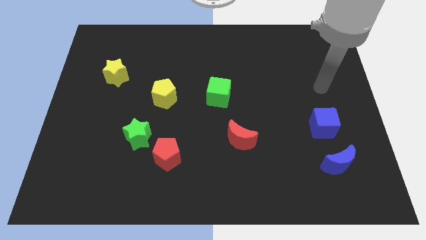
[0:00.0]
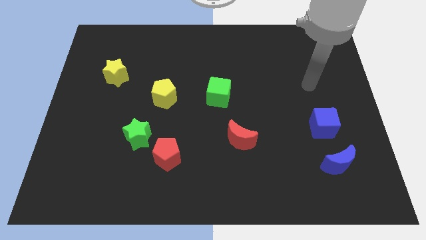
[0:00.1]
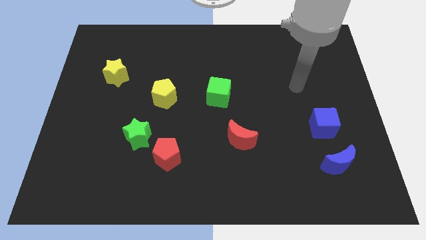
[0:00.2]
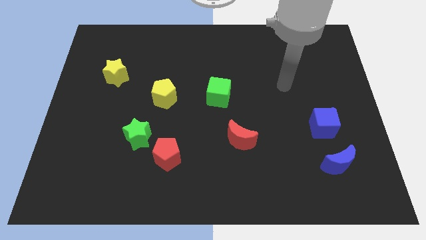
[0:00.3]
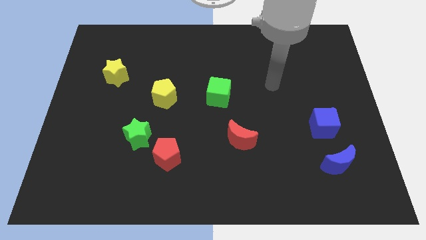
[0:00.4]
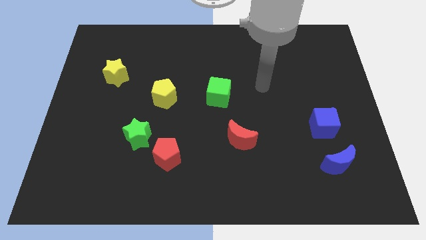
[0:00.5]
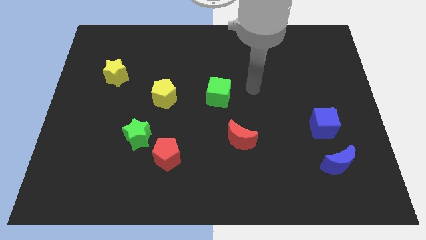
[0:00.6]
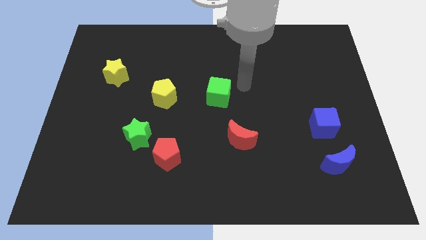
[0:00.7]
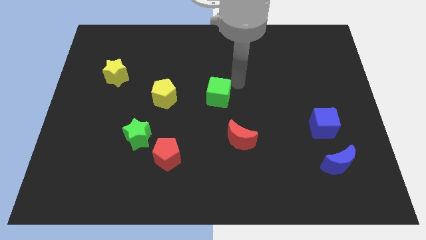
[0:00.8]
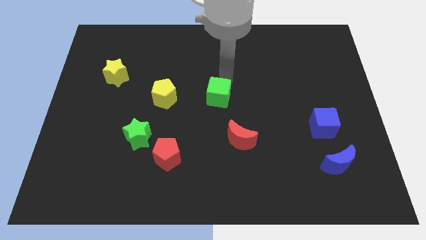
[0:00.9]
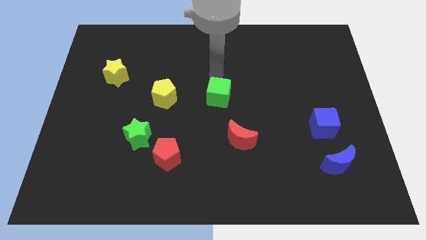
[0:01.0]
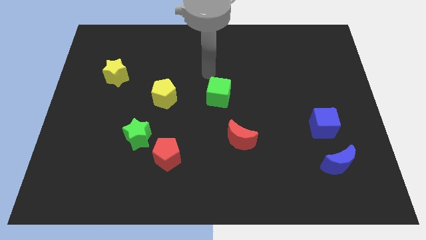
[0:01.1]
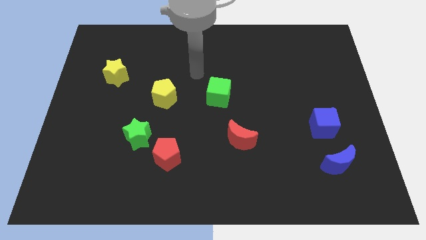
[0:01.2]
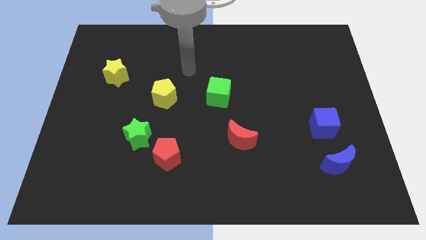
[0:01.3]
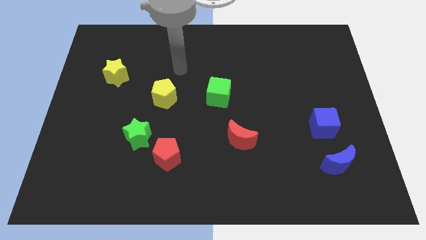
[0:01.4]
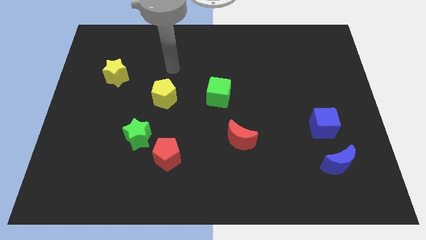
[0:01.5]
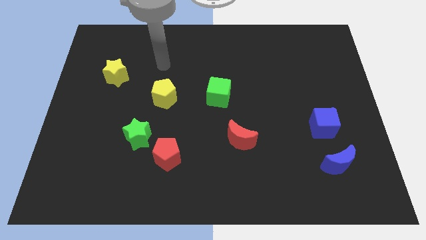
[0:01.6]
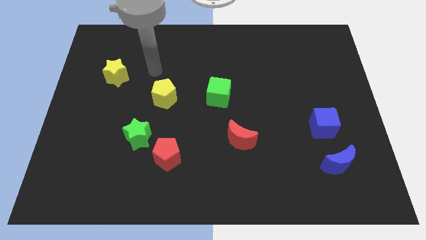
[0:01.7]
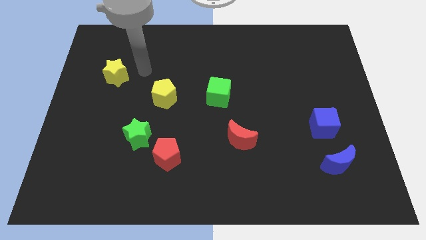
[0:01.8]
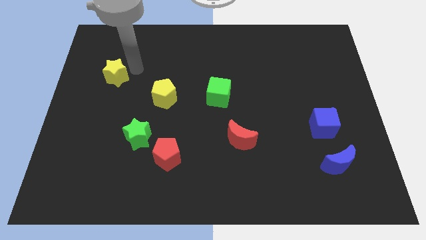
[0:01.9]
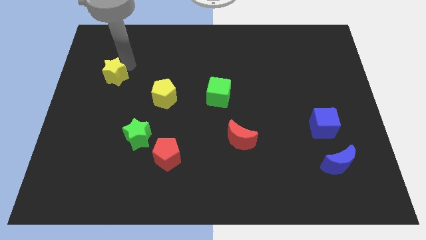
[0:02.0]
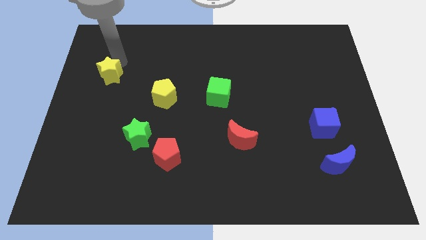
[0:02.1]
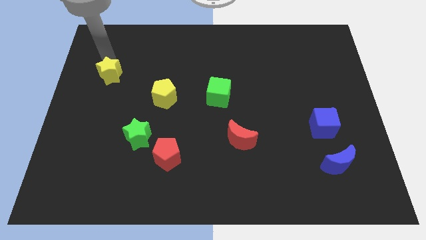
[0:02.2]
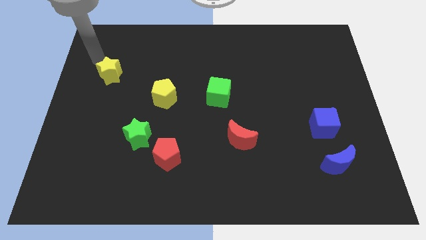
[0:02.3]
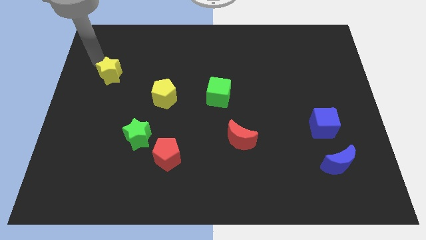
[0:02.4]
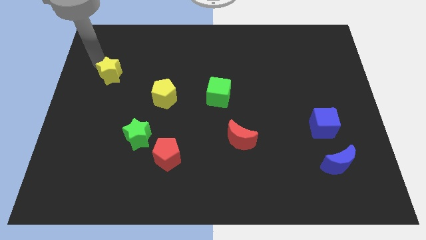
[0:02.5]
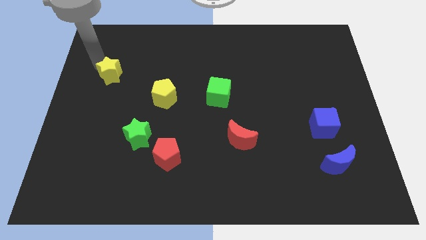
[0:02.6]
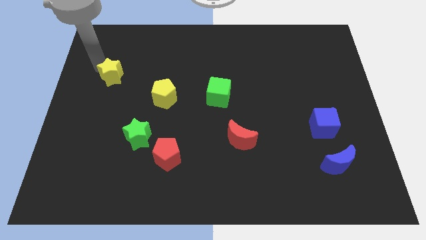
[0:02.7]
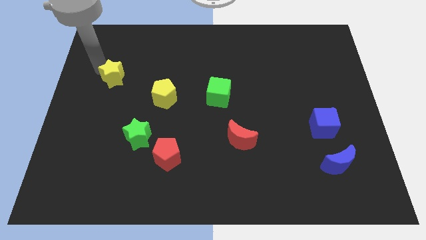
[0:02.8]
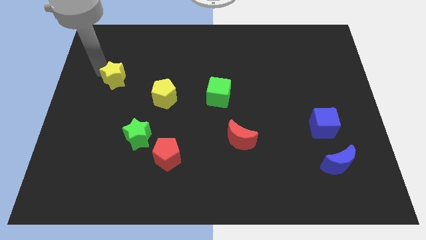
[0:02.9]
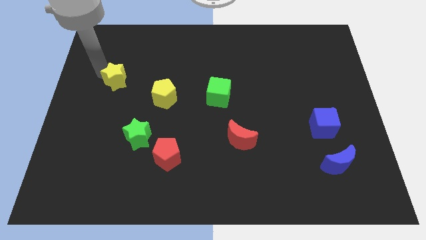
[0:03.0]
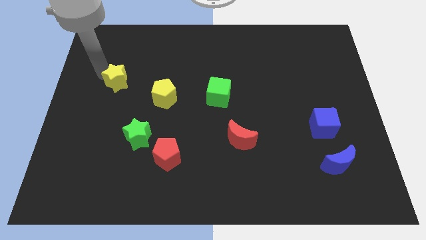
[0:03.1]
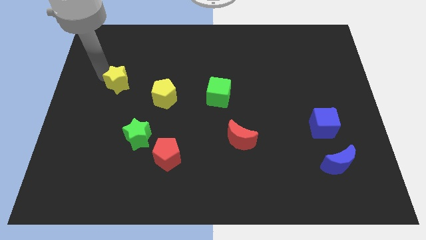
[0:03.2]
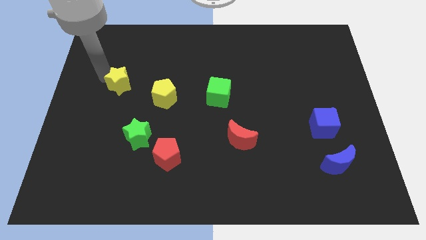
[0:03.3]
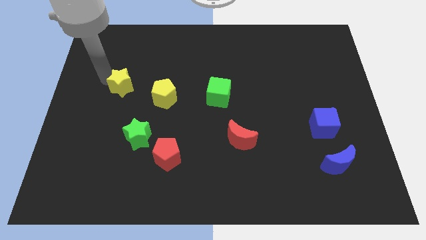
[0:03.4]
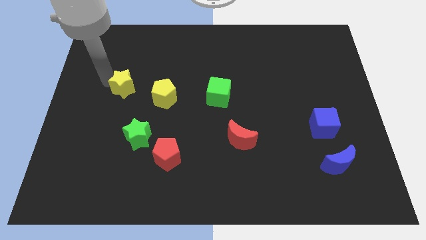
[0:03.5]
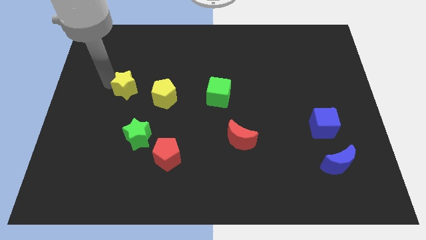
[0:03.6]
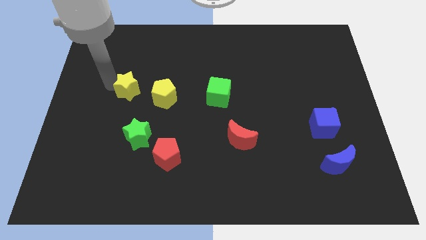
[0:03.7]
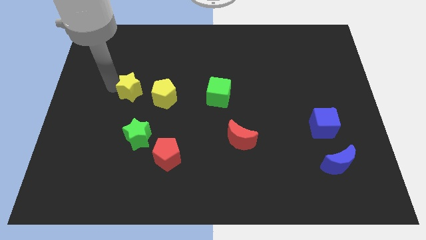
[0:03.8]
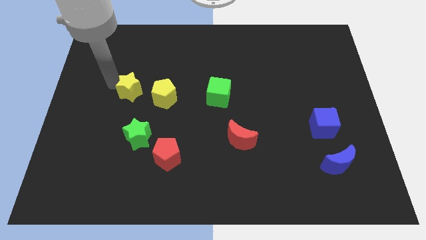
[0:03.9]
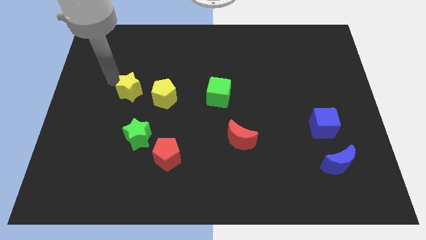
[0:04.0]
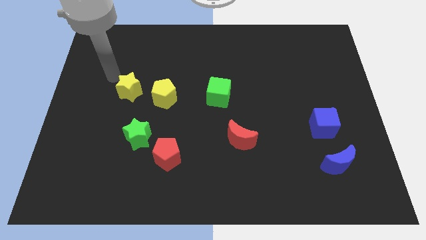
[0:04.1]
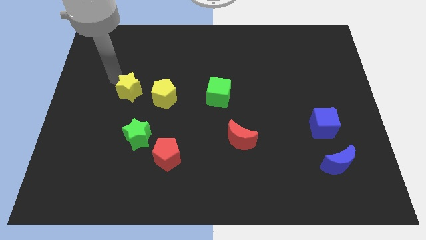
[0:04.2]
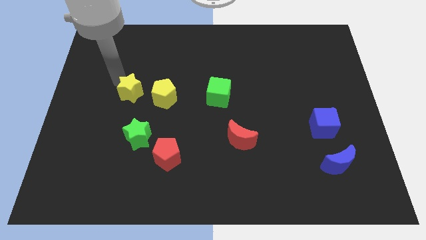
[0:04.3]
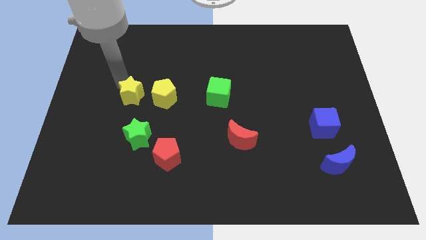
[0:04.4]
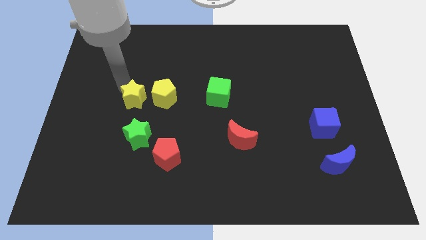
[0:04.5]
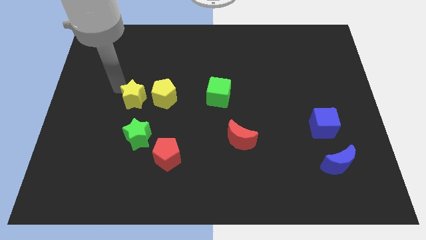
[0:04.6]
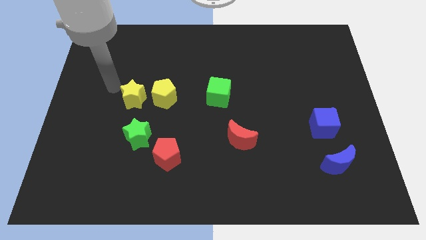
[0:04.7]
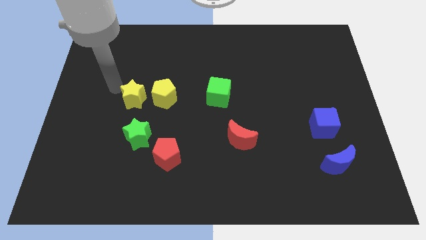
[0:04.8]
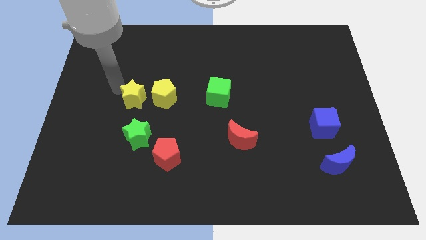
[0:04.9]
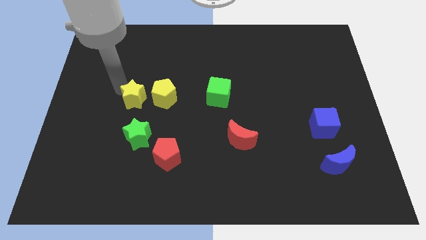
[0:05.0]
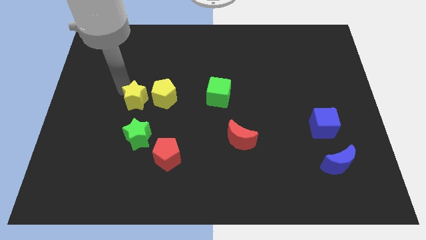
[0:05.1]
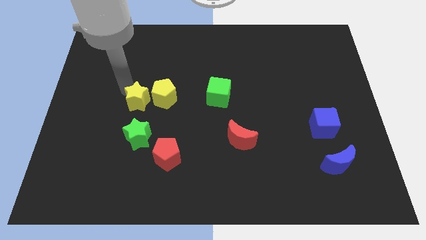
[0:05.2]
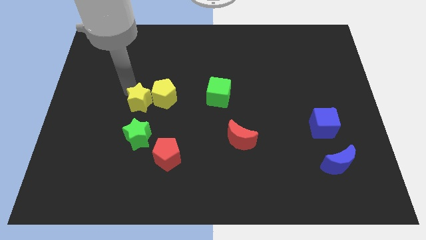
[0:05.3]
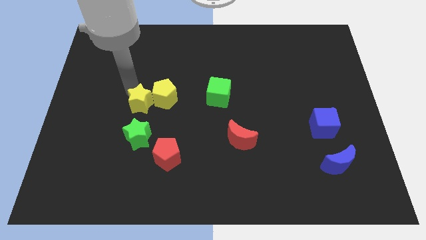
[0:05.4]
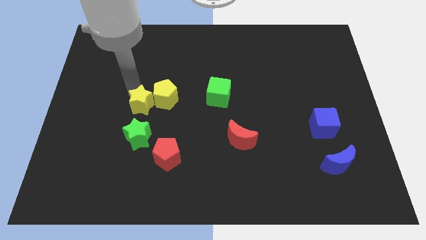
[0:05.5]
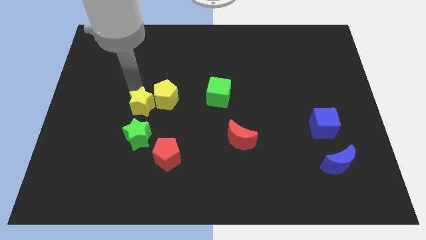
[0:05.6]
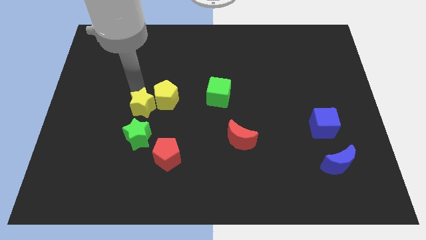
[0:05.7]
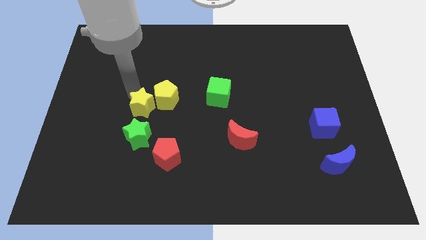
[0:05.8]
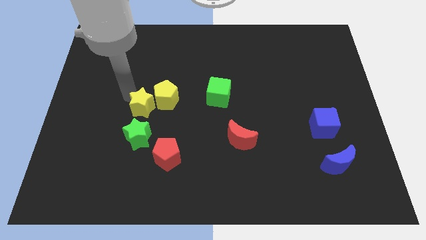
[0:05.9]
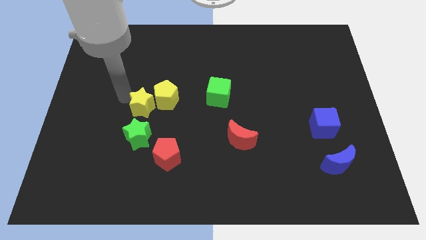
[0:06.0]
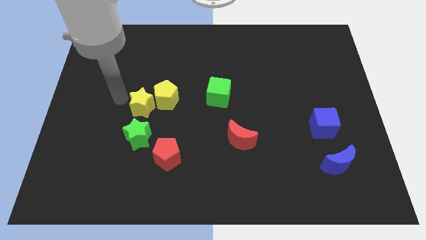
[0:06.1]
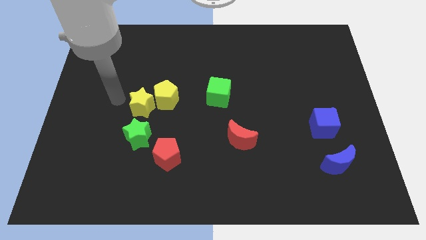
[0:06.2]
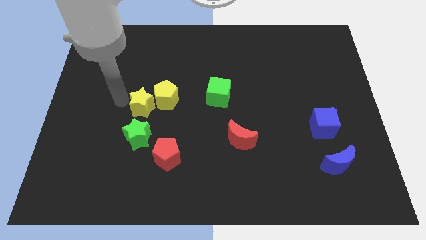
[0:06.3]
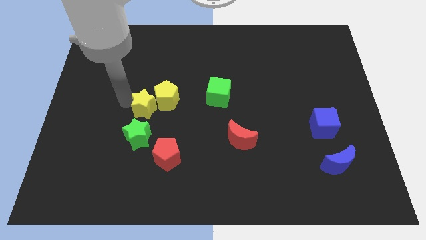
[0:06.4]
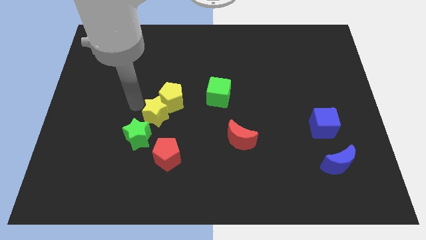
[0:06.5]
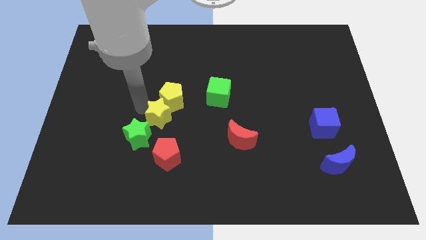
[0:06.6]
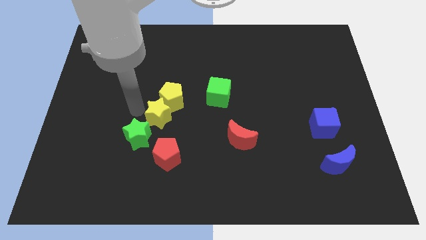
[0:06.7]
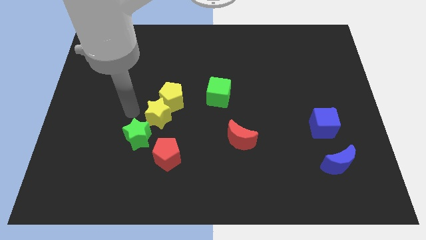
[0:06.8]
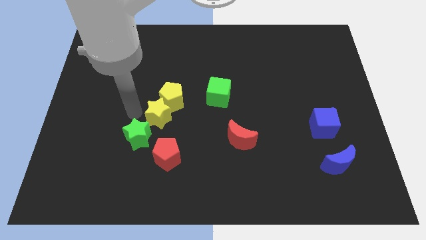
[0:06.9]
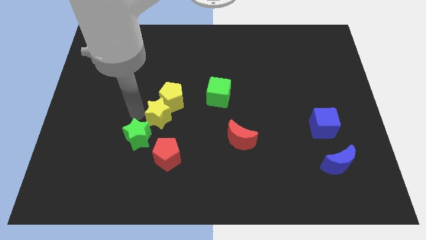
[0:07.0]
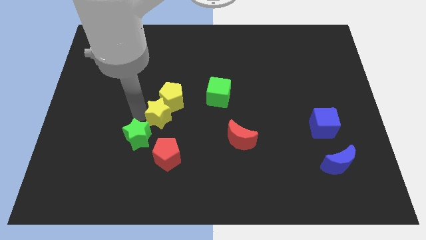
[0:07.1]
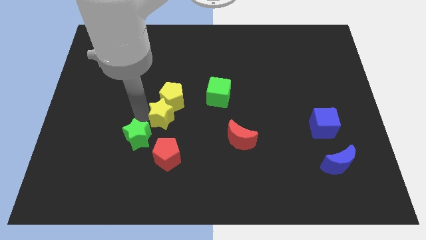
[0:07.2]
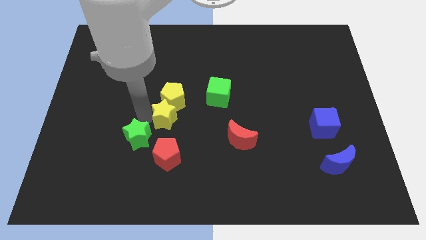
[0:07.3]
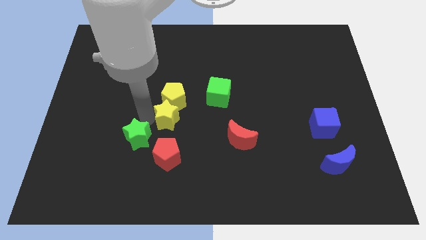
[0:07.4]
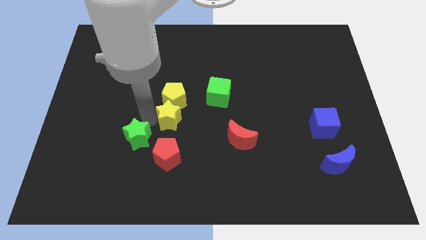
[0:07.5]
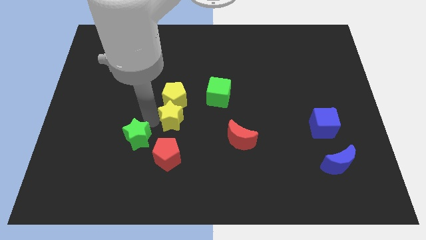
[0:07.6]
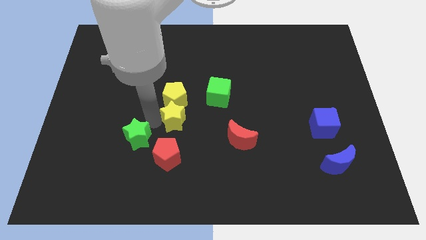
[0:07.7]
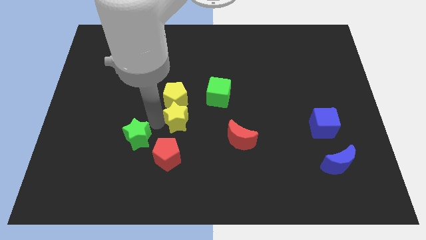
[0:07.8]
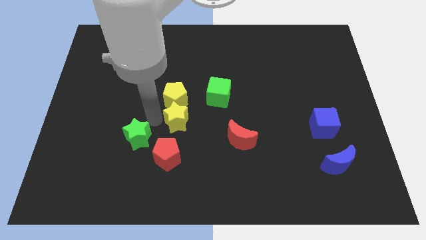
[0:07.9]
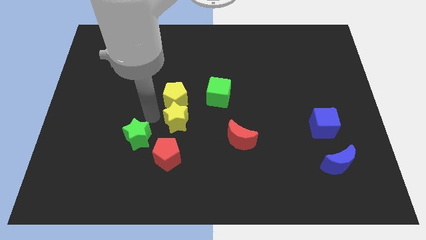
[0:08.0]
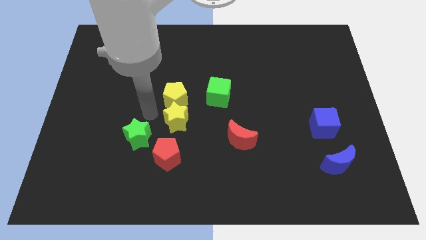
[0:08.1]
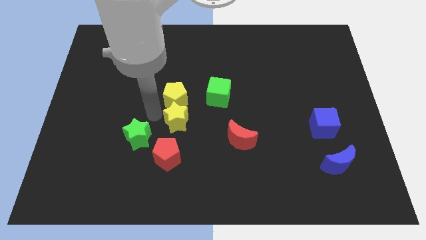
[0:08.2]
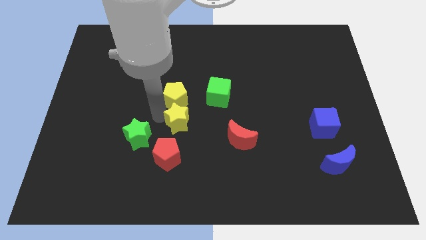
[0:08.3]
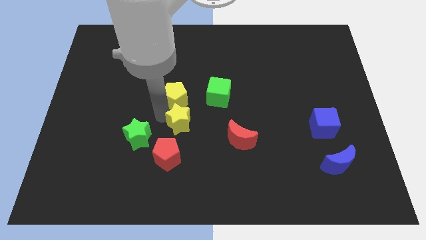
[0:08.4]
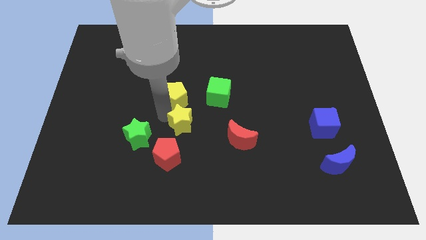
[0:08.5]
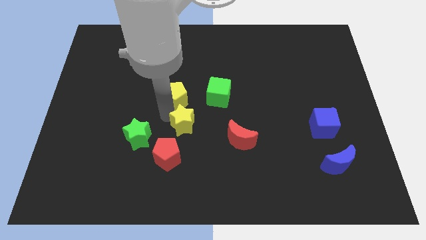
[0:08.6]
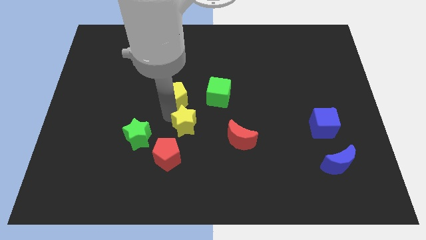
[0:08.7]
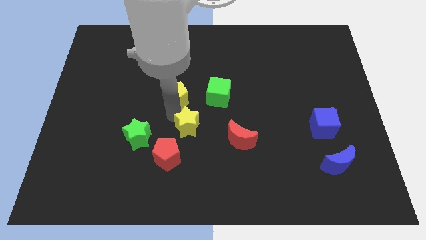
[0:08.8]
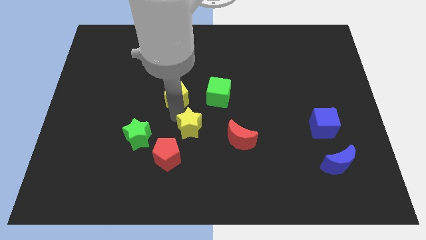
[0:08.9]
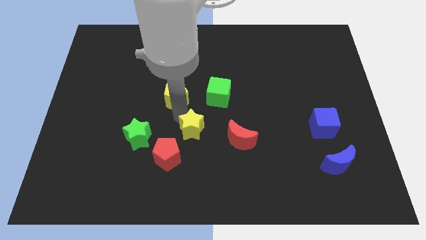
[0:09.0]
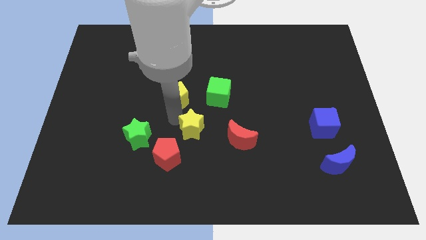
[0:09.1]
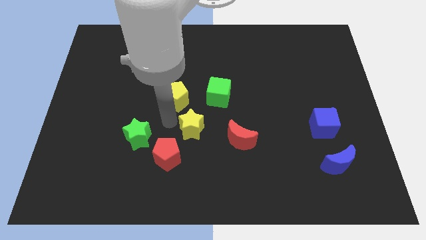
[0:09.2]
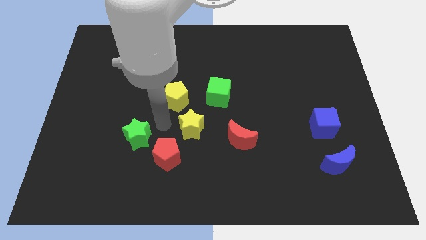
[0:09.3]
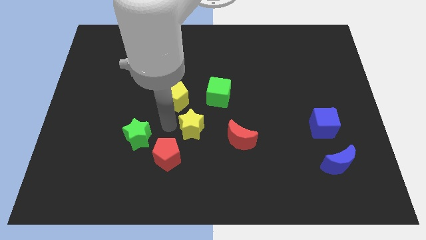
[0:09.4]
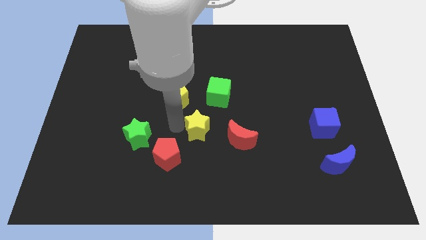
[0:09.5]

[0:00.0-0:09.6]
push the yellow star below the green cube
